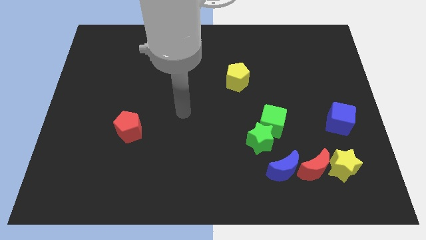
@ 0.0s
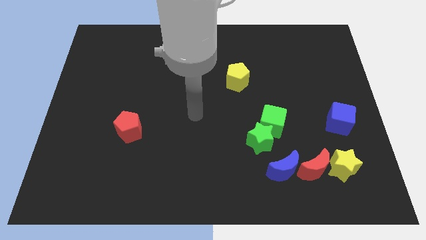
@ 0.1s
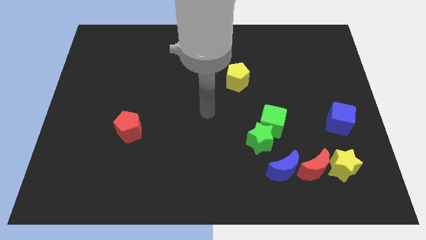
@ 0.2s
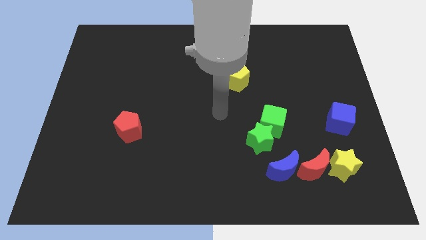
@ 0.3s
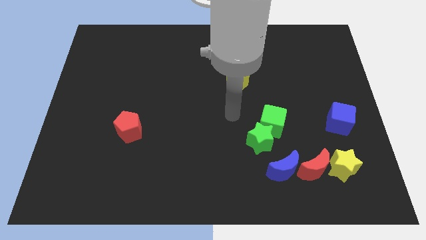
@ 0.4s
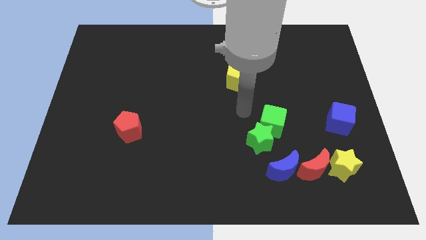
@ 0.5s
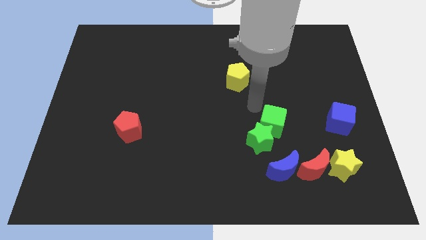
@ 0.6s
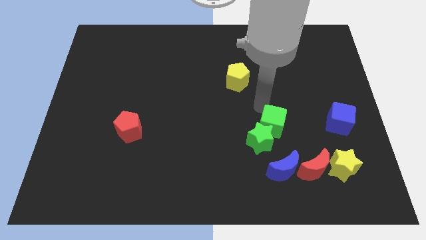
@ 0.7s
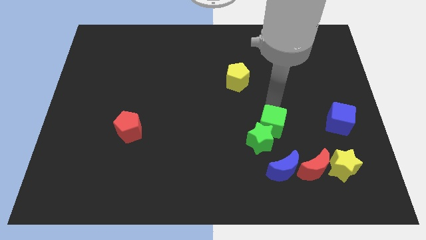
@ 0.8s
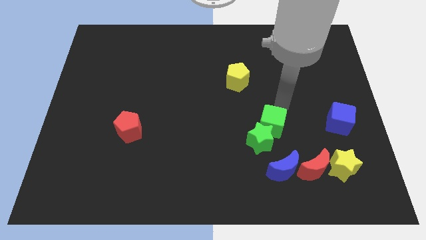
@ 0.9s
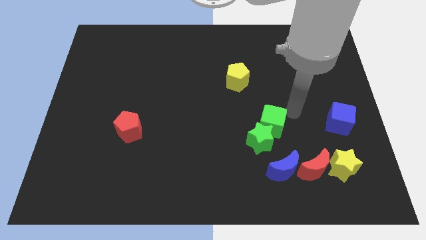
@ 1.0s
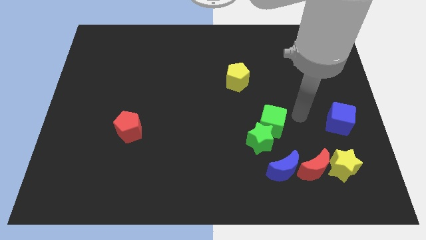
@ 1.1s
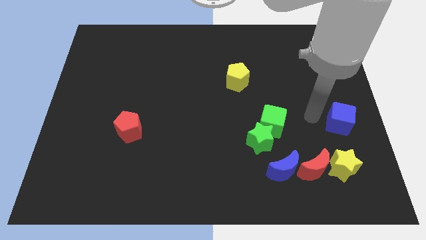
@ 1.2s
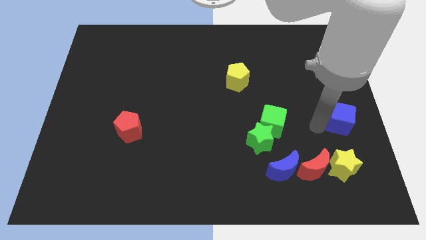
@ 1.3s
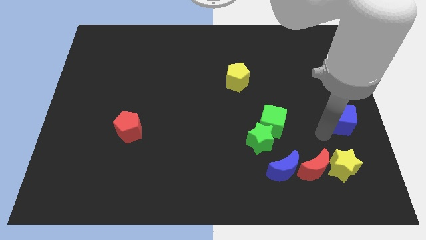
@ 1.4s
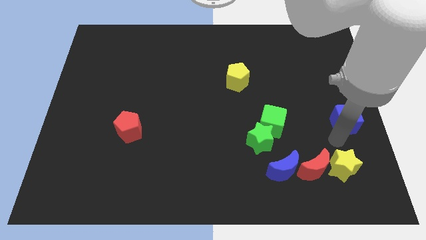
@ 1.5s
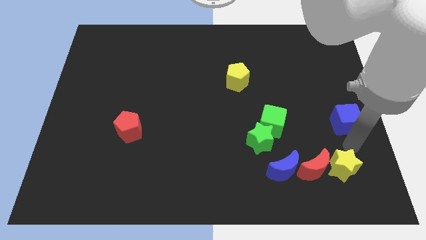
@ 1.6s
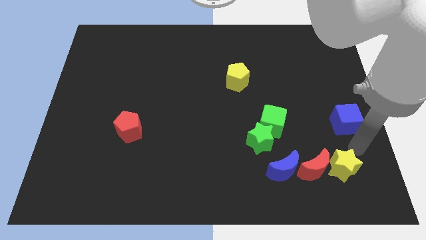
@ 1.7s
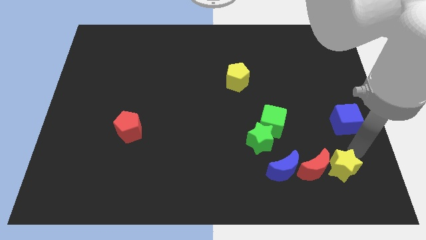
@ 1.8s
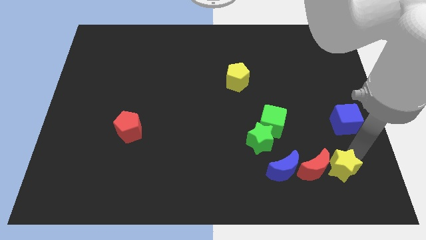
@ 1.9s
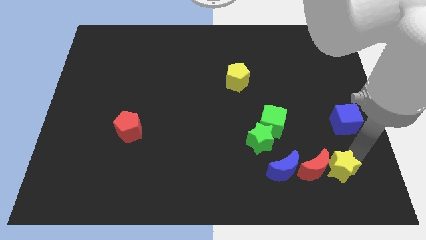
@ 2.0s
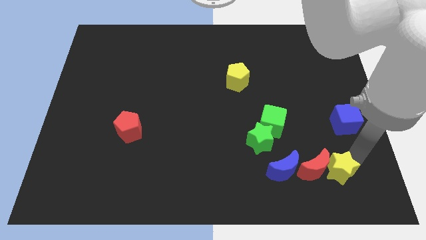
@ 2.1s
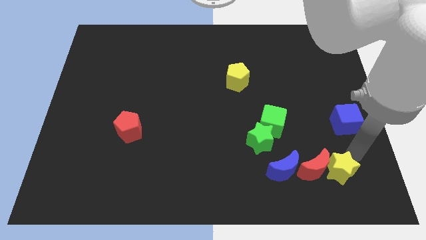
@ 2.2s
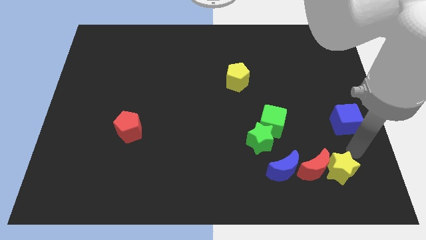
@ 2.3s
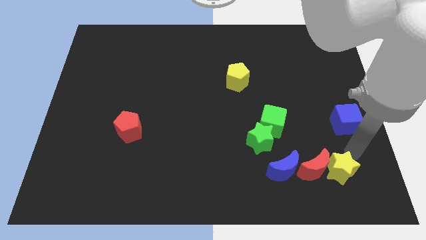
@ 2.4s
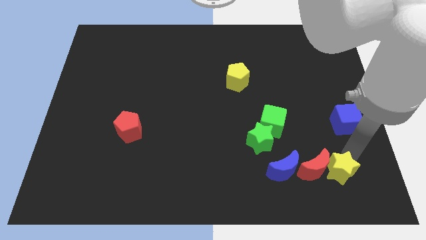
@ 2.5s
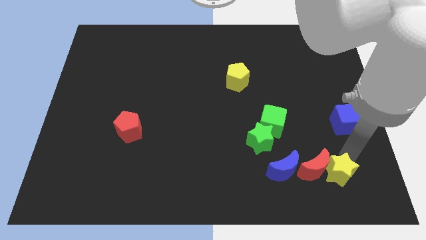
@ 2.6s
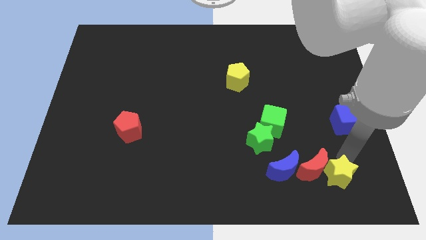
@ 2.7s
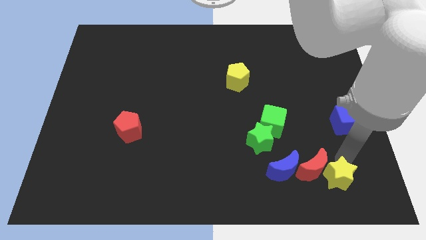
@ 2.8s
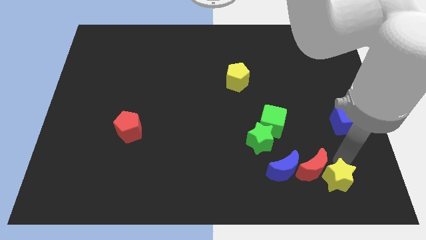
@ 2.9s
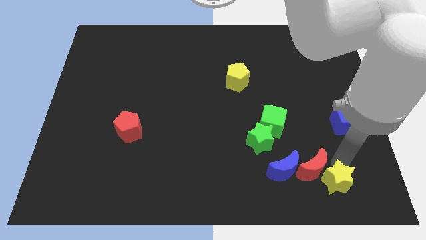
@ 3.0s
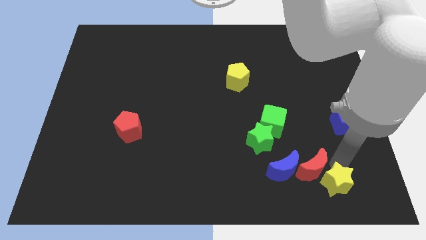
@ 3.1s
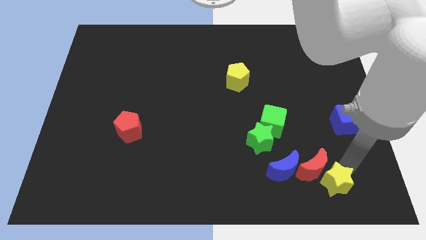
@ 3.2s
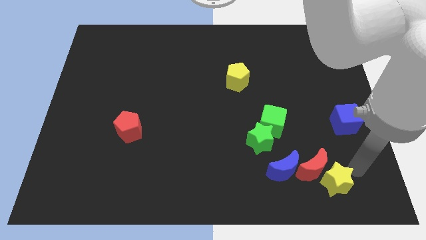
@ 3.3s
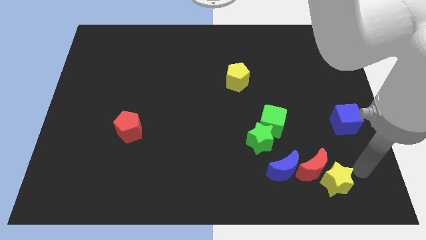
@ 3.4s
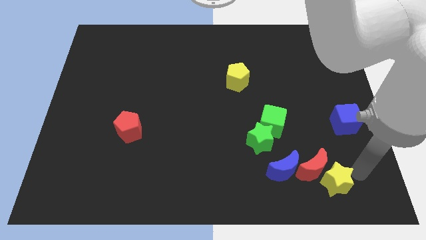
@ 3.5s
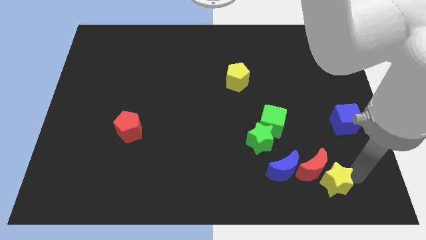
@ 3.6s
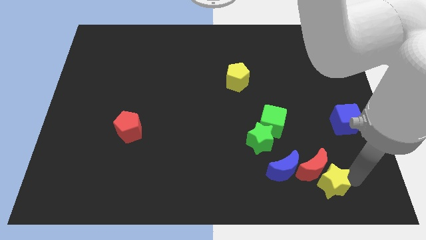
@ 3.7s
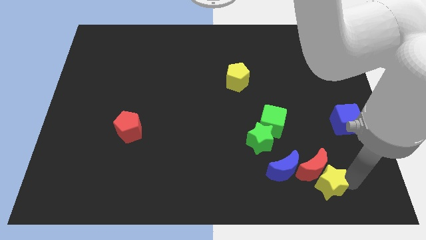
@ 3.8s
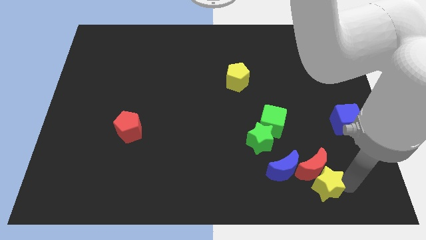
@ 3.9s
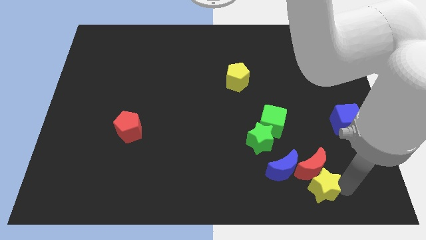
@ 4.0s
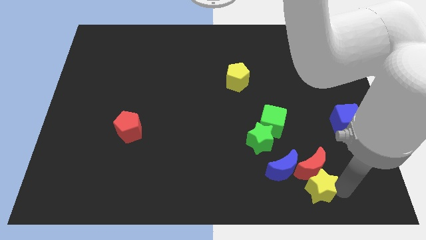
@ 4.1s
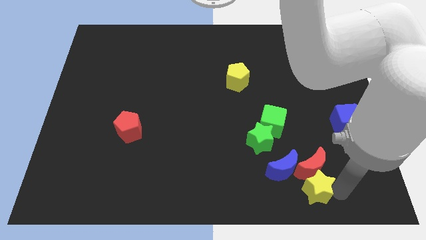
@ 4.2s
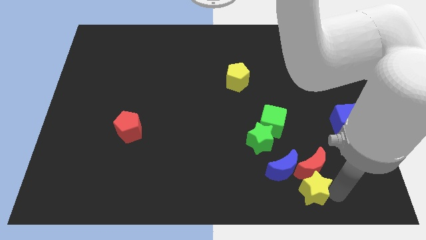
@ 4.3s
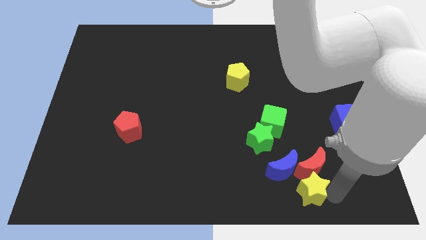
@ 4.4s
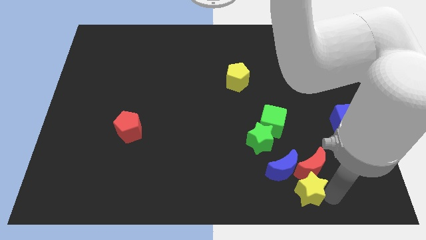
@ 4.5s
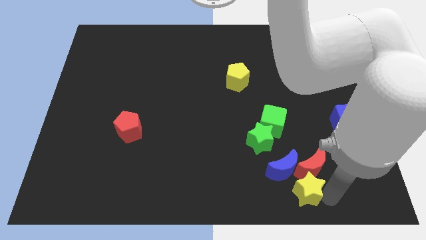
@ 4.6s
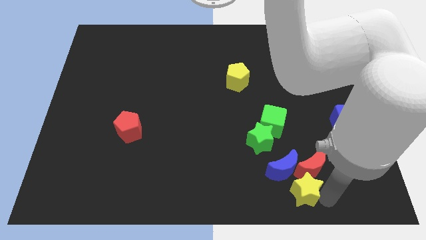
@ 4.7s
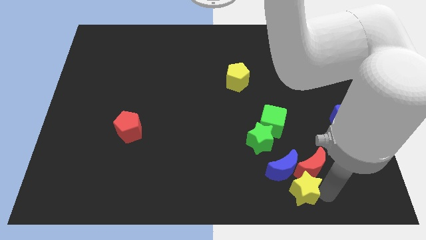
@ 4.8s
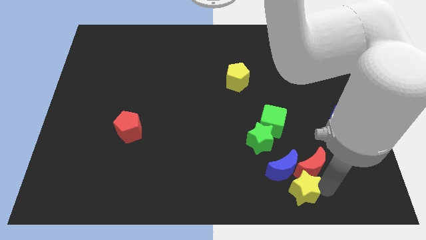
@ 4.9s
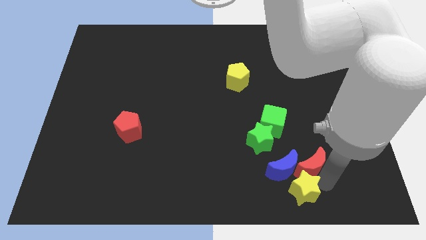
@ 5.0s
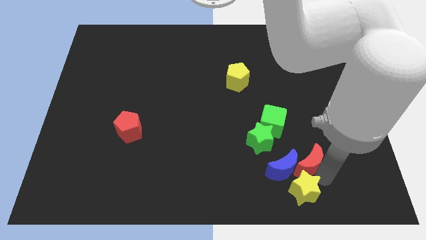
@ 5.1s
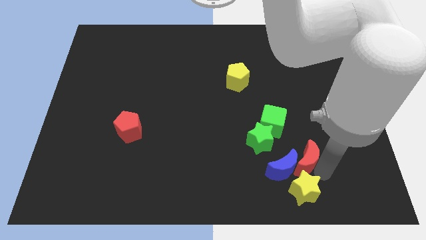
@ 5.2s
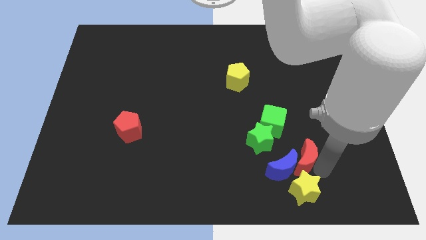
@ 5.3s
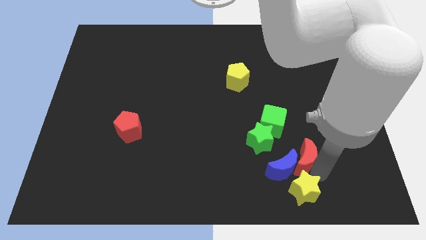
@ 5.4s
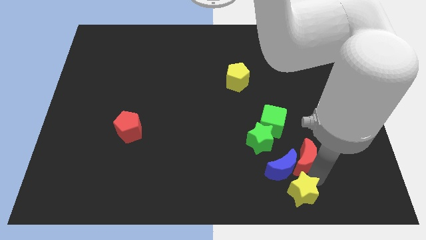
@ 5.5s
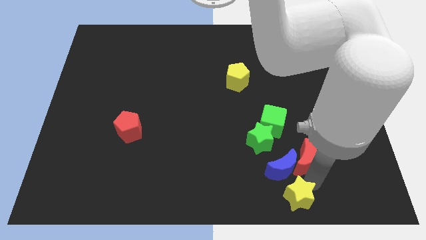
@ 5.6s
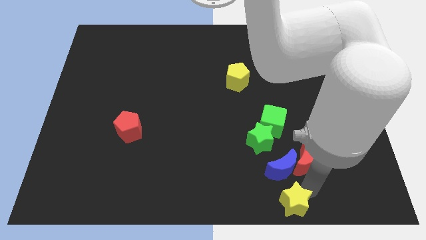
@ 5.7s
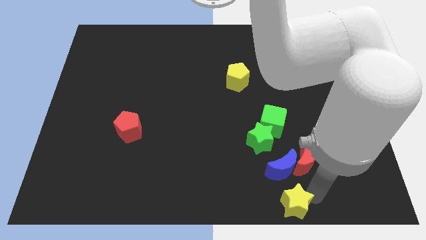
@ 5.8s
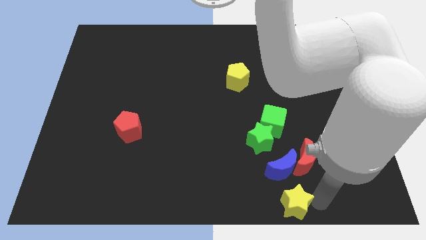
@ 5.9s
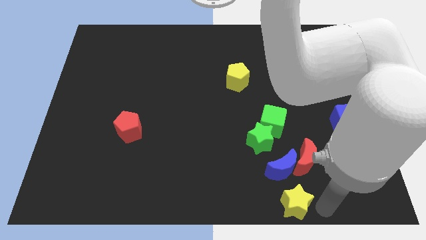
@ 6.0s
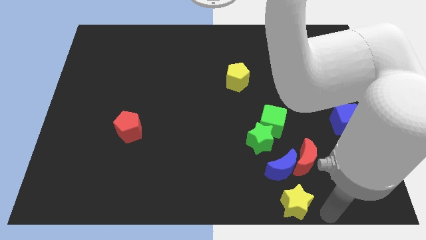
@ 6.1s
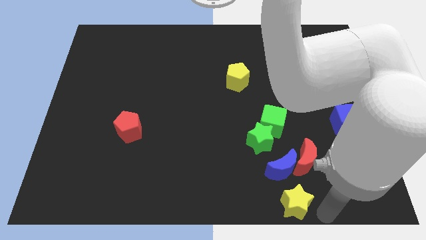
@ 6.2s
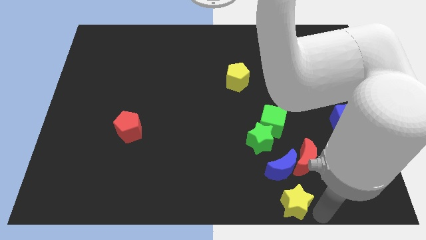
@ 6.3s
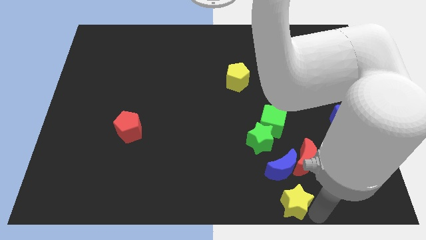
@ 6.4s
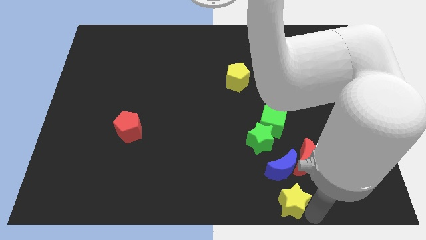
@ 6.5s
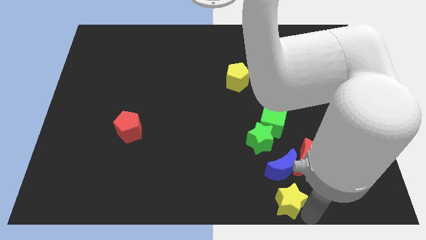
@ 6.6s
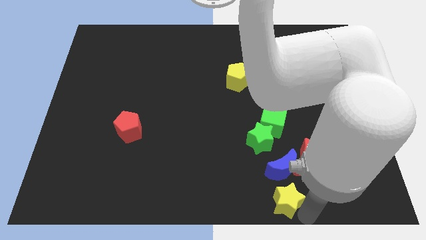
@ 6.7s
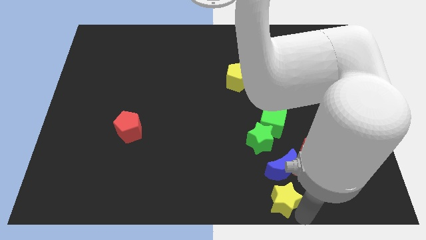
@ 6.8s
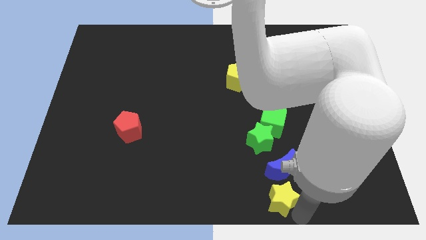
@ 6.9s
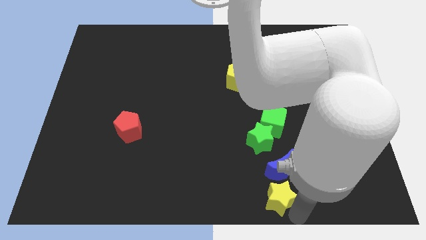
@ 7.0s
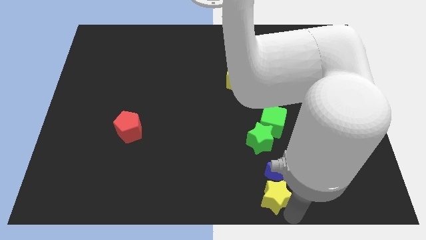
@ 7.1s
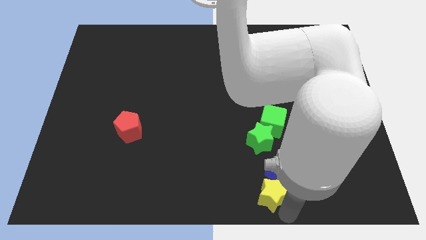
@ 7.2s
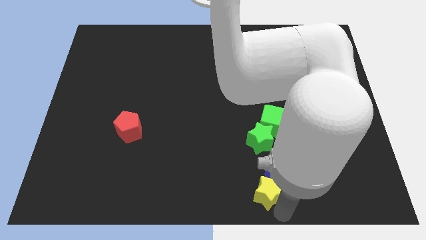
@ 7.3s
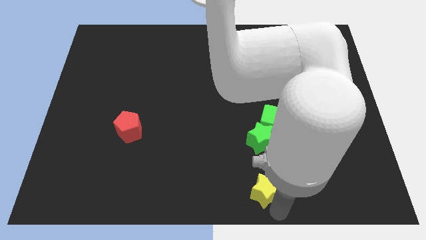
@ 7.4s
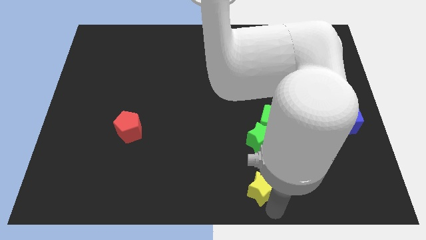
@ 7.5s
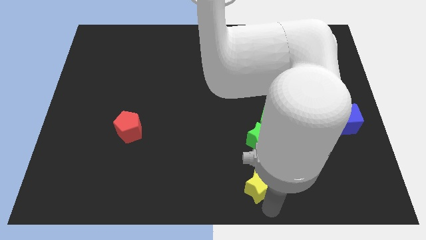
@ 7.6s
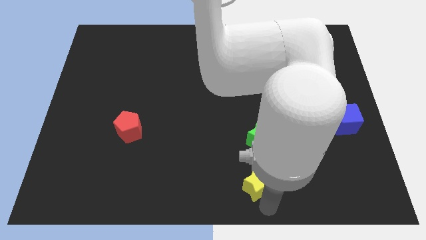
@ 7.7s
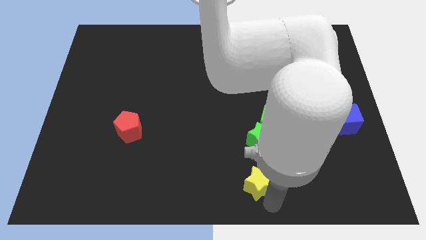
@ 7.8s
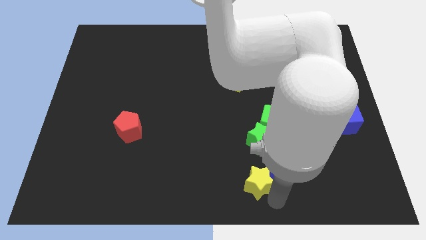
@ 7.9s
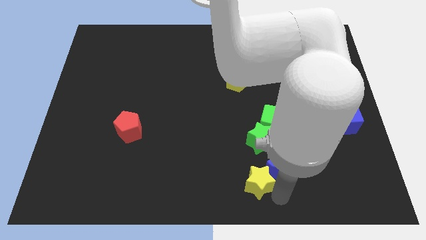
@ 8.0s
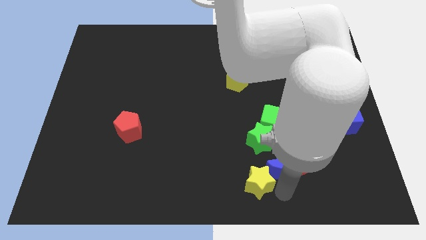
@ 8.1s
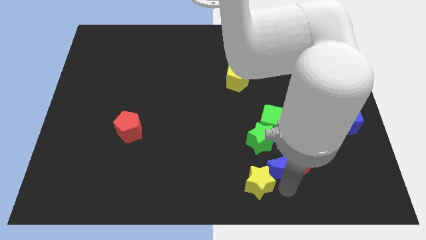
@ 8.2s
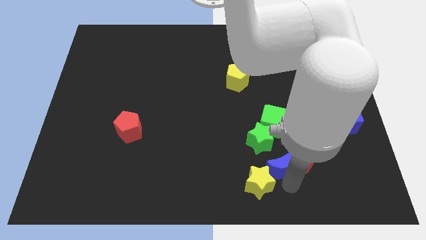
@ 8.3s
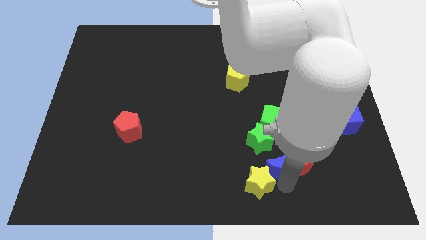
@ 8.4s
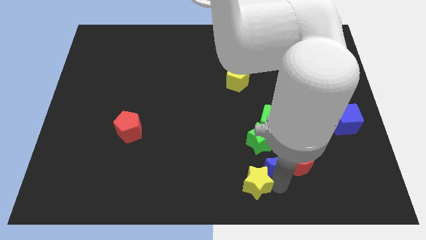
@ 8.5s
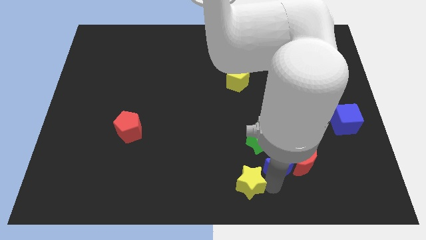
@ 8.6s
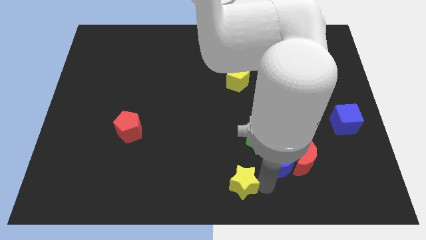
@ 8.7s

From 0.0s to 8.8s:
move the yellow star left
